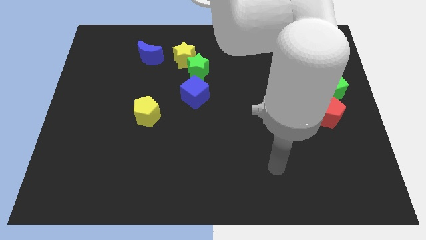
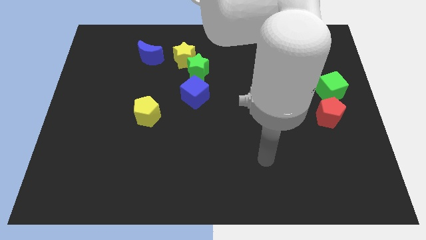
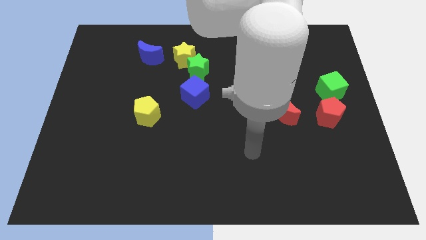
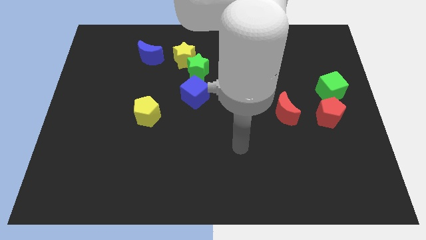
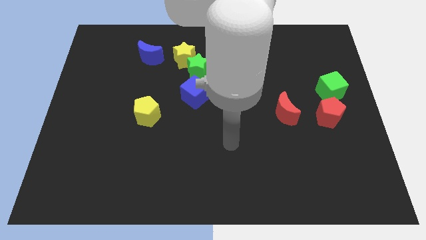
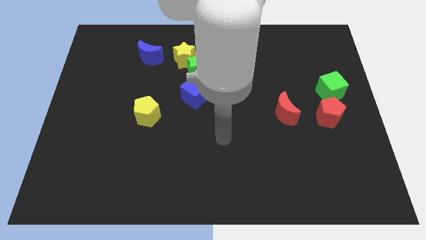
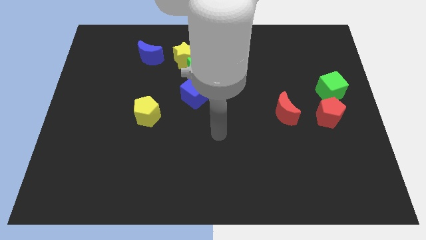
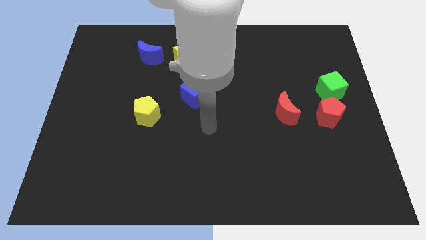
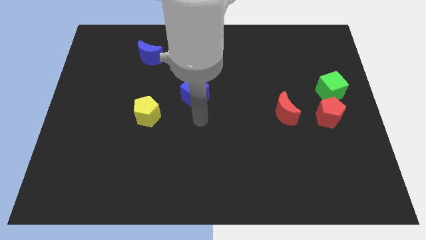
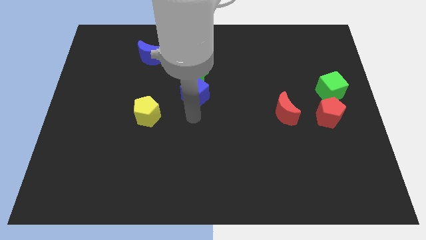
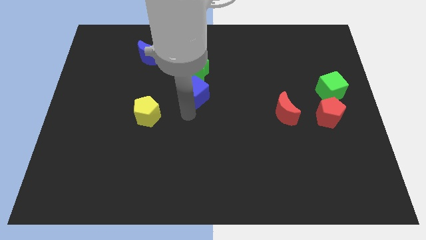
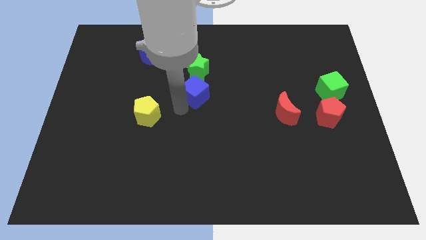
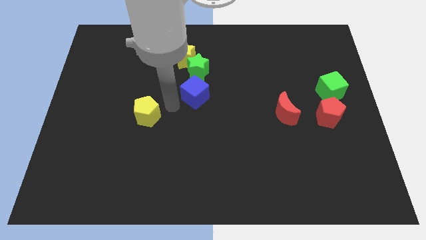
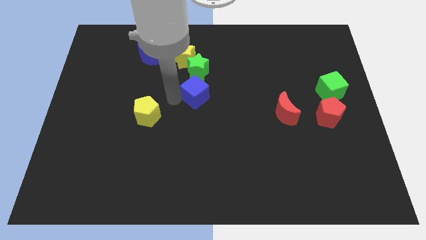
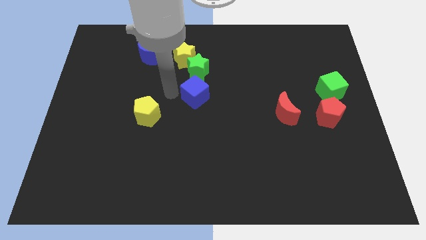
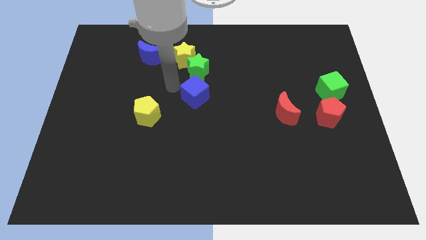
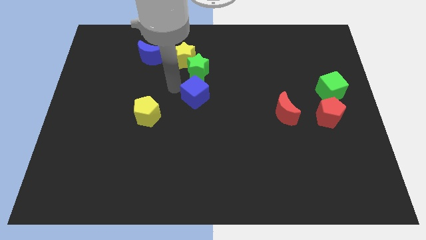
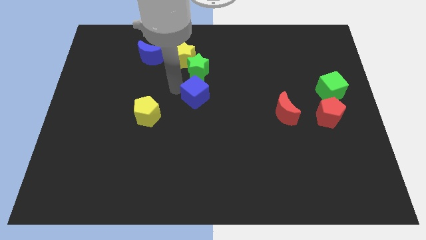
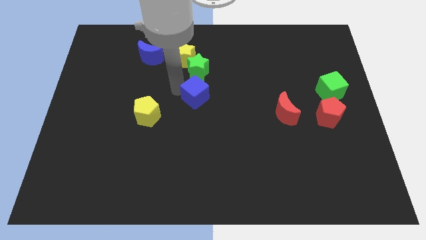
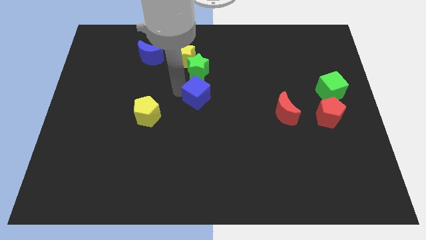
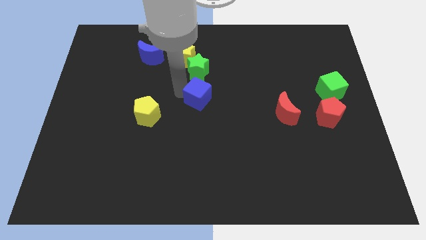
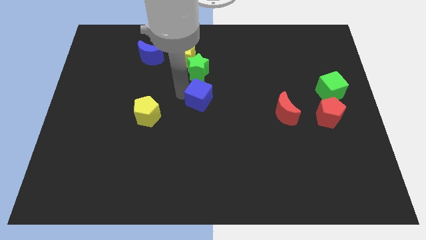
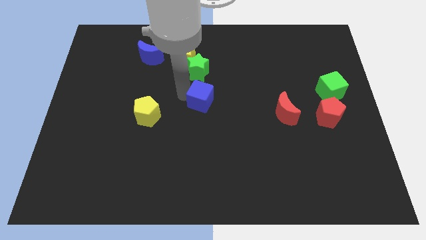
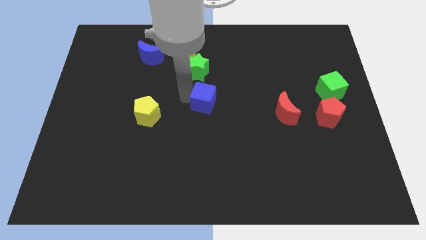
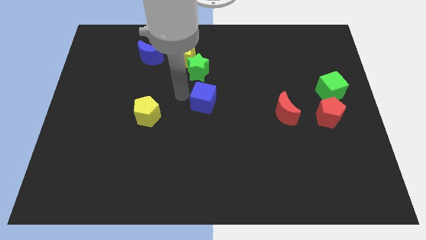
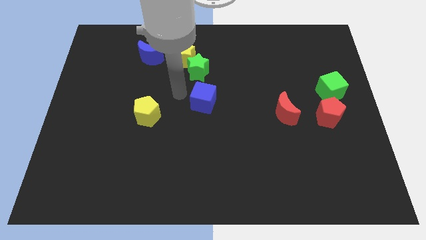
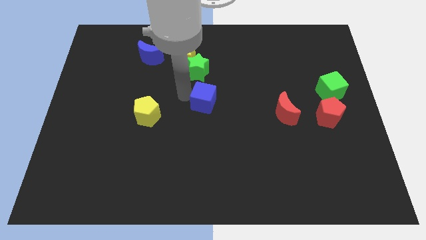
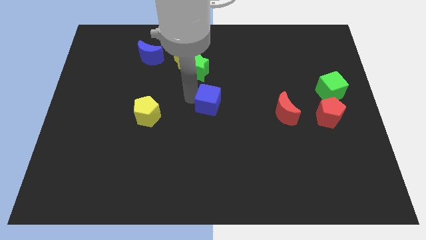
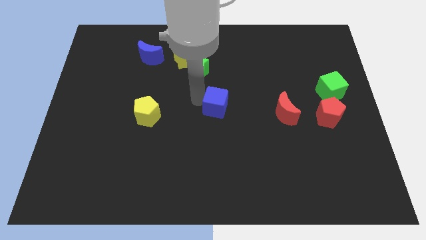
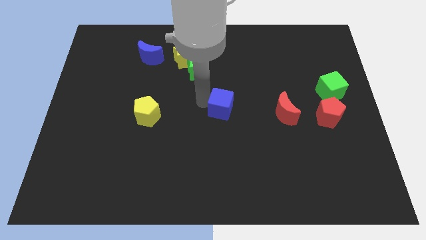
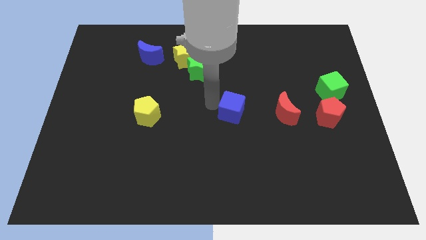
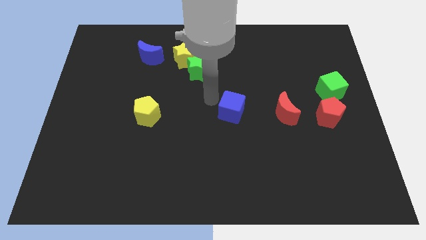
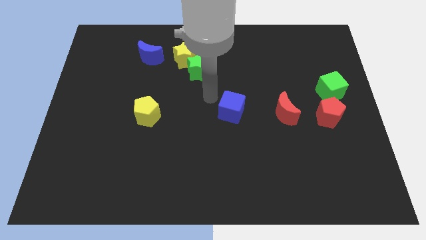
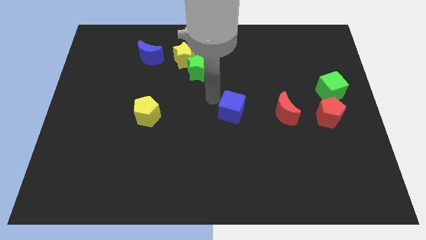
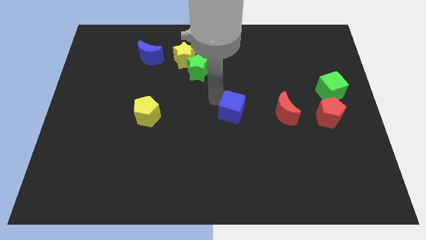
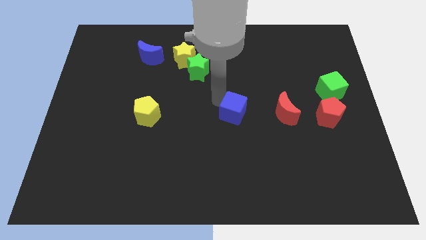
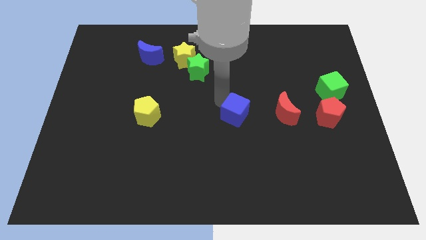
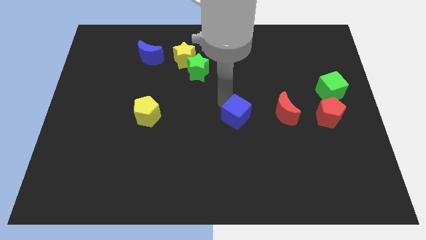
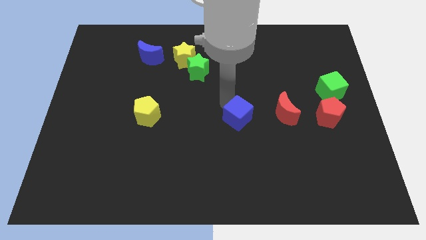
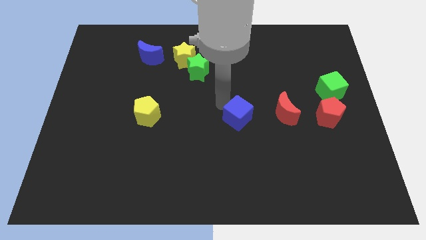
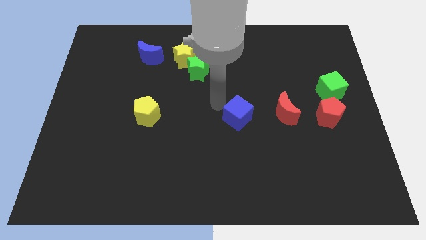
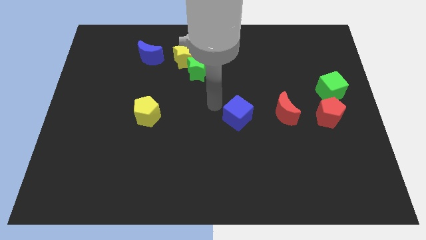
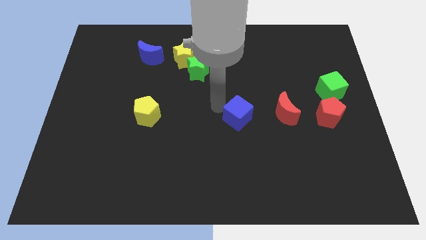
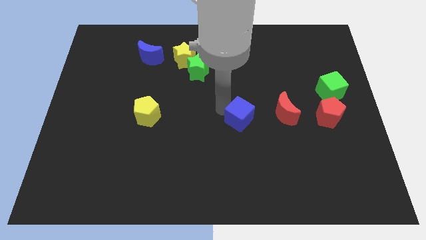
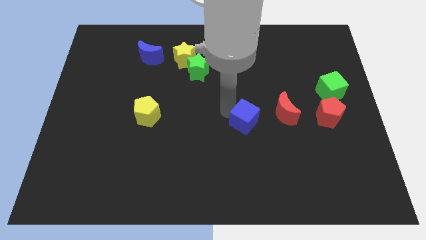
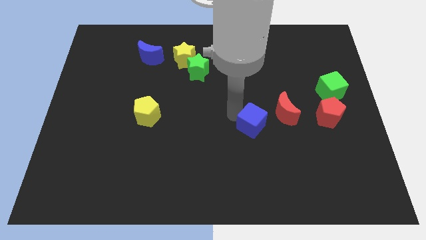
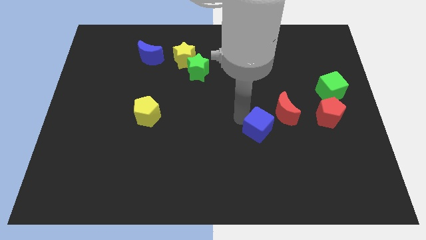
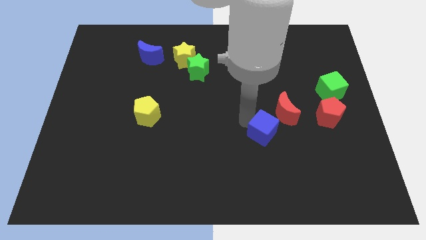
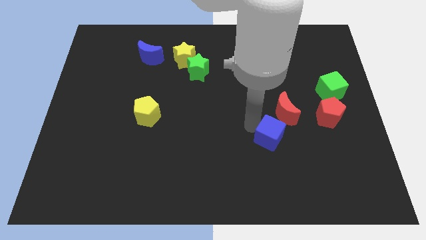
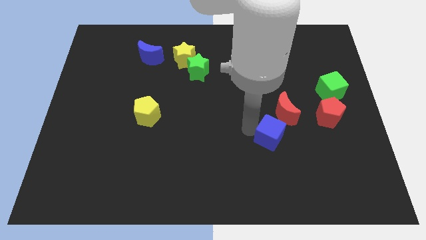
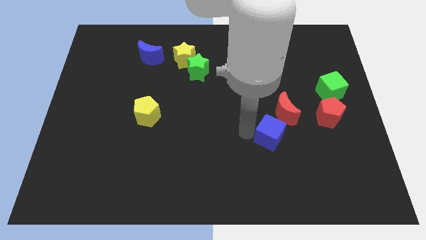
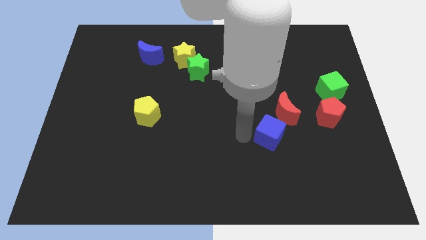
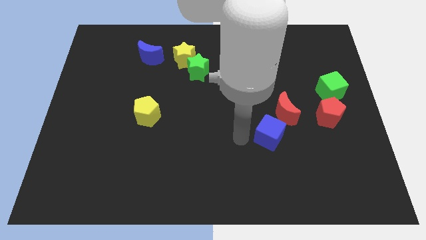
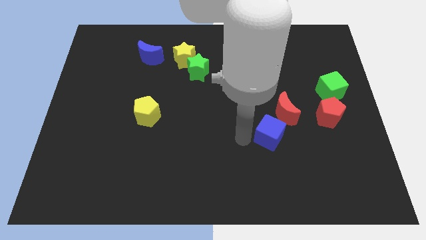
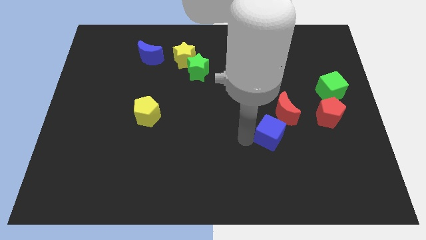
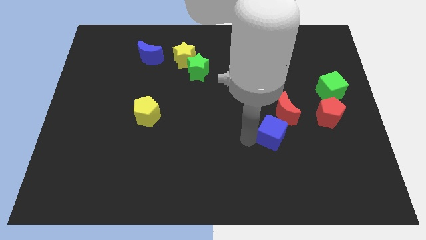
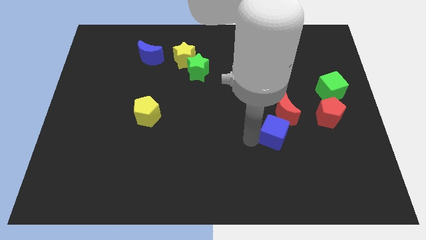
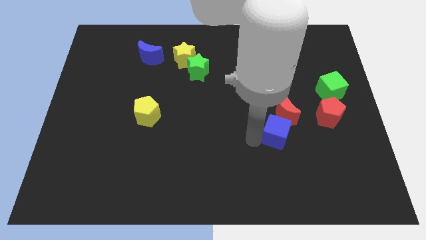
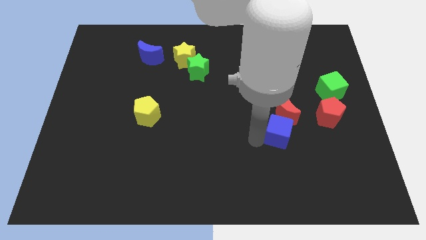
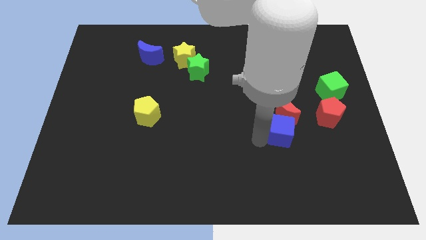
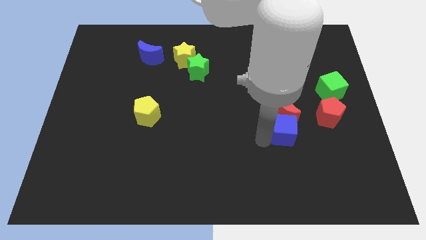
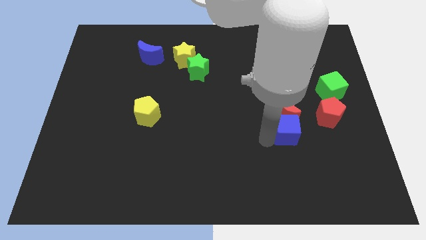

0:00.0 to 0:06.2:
push the blue cube to the bottom left of the red pentagon

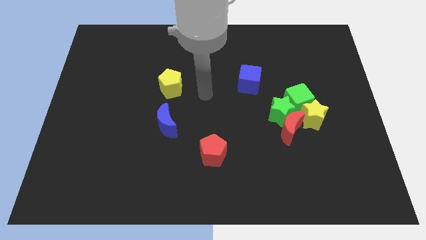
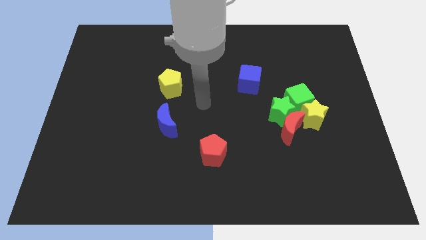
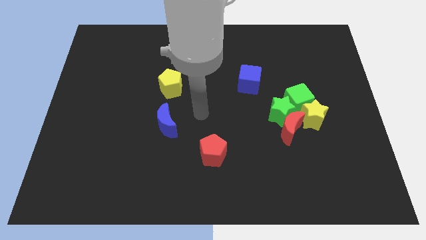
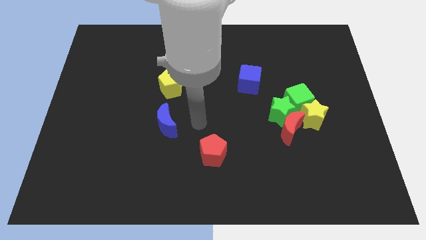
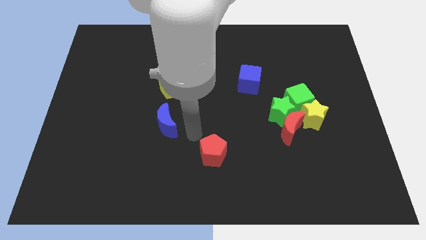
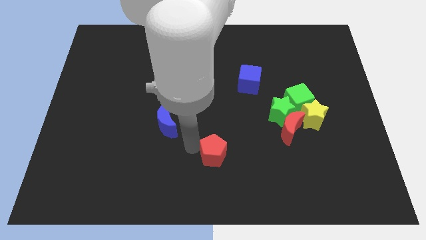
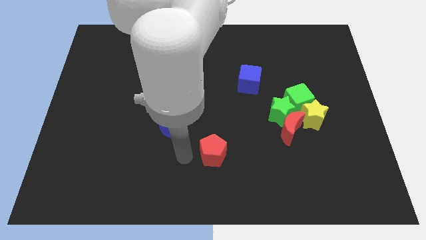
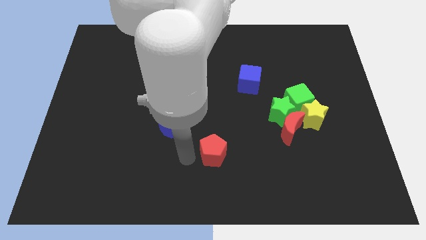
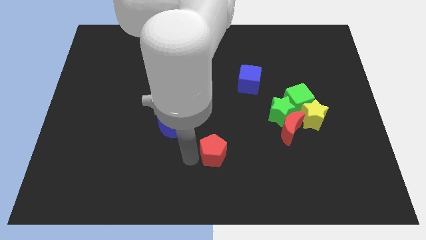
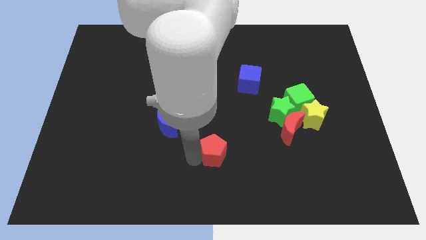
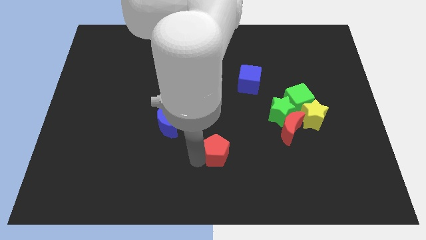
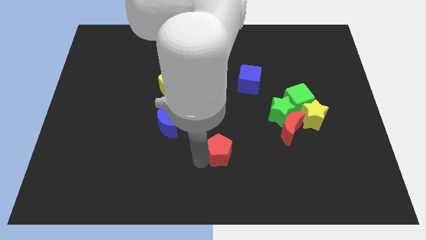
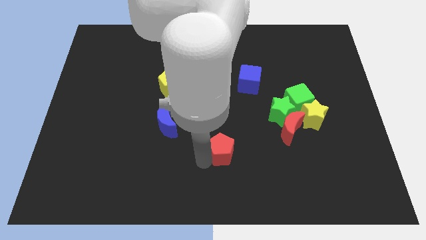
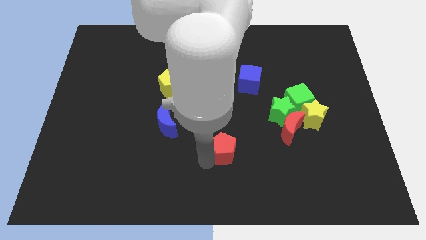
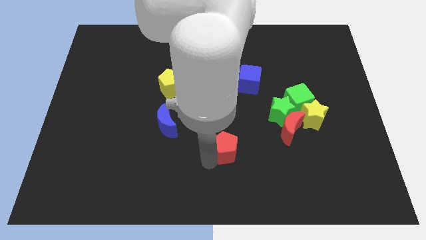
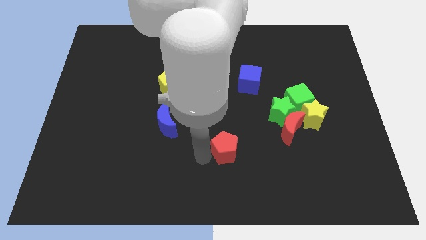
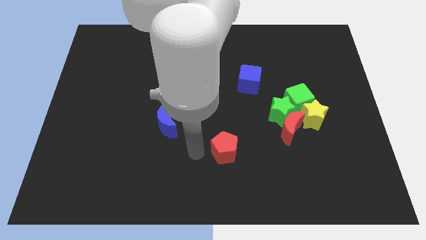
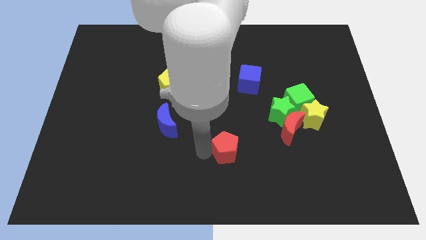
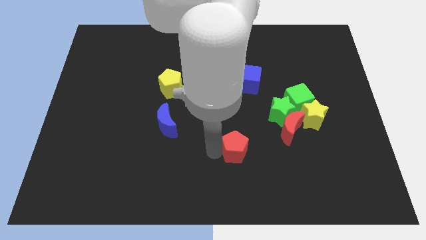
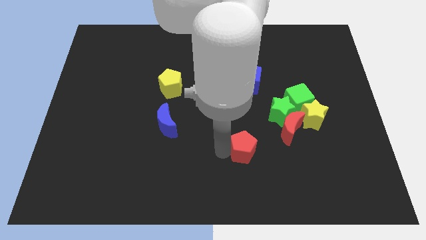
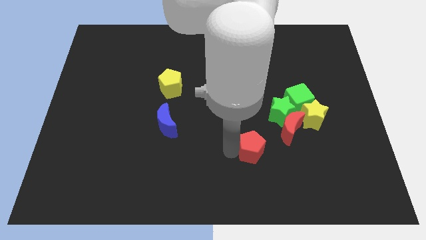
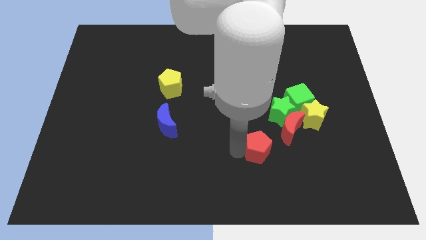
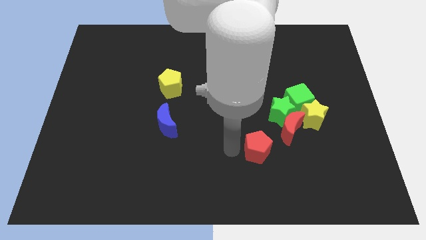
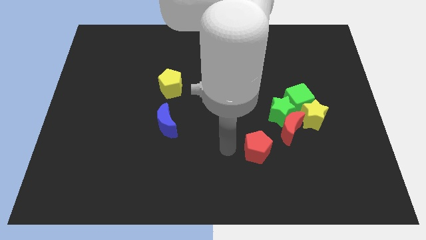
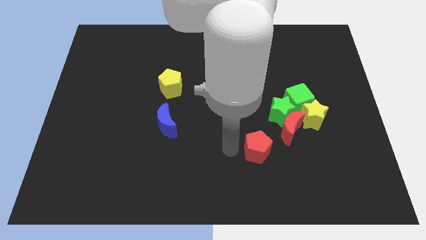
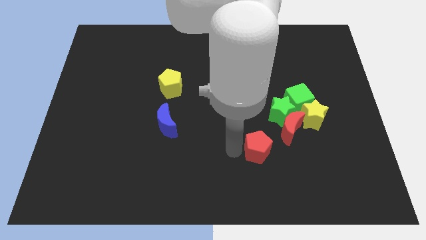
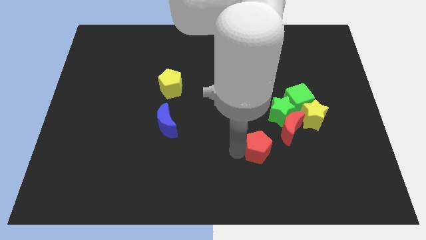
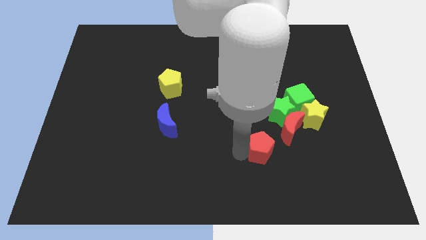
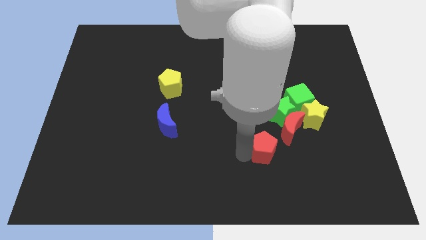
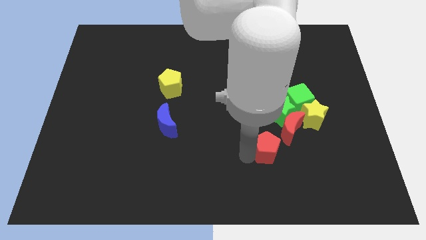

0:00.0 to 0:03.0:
put the red pentagon below the green star
